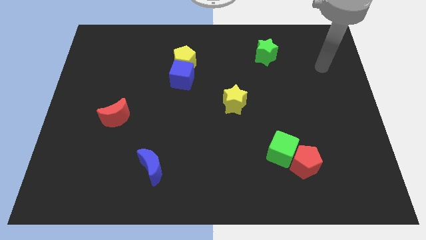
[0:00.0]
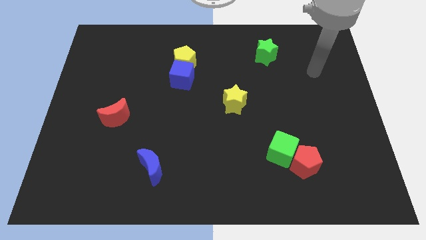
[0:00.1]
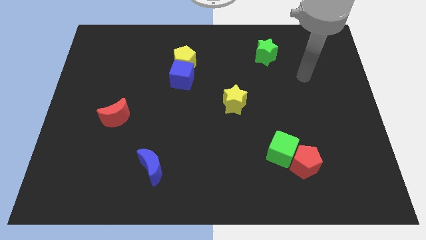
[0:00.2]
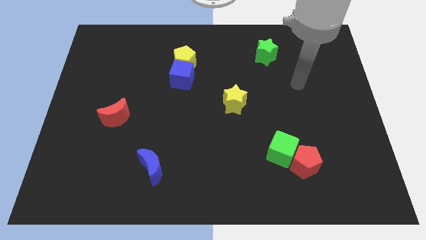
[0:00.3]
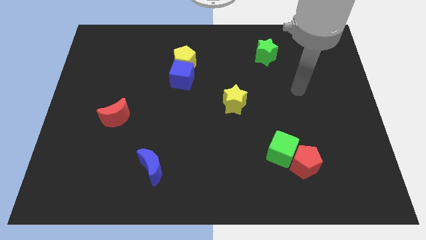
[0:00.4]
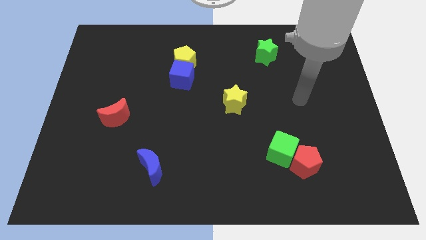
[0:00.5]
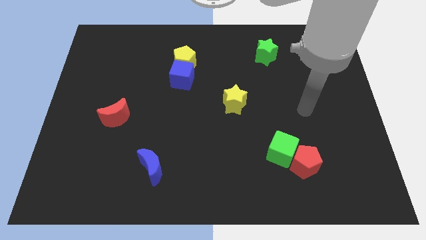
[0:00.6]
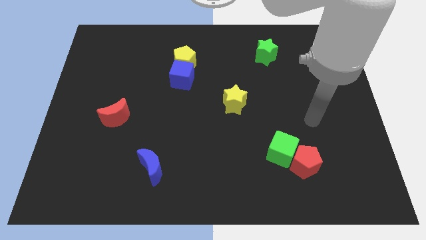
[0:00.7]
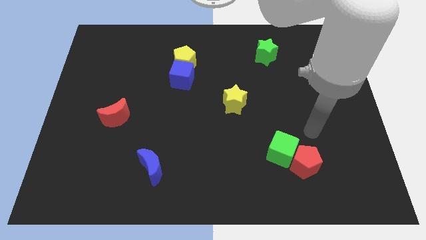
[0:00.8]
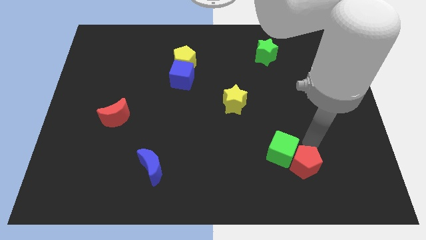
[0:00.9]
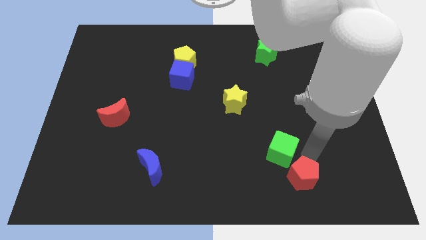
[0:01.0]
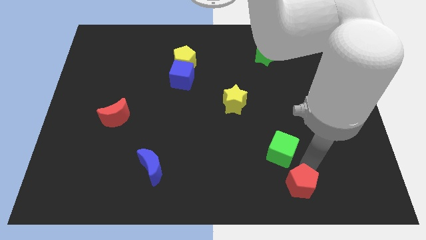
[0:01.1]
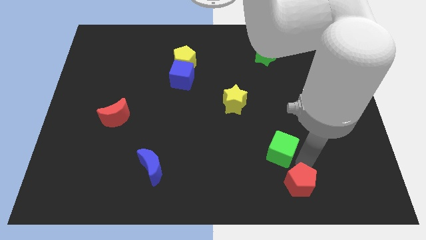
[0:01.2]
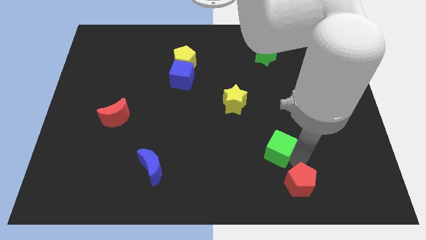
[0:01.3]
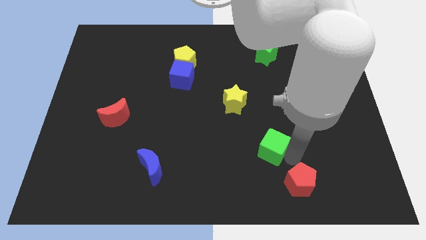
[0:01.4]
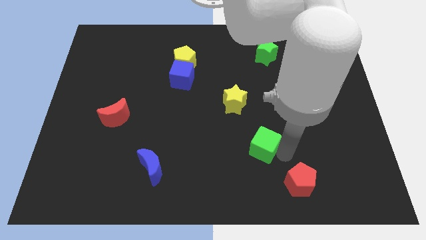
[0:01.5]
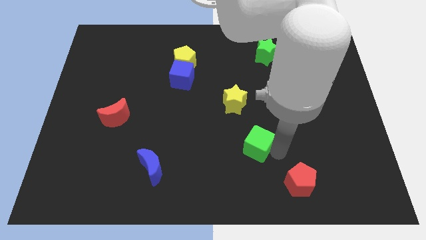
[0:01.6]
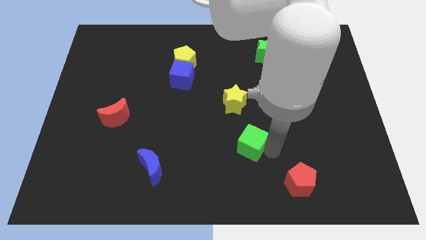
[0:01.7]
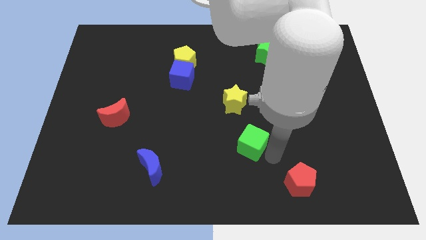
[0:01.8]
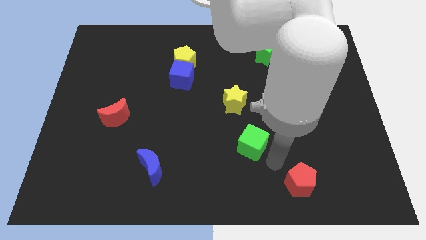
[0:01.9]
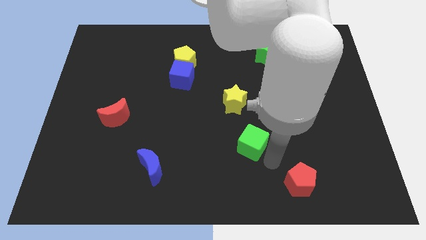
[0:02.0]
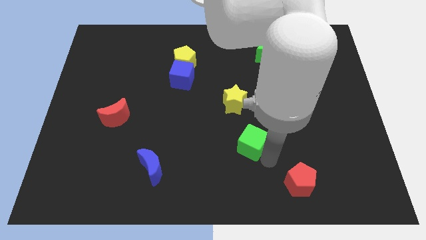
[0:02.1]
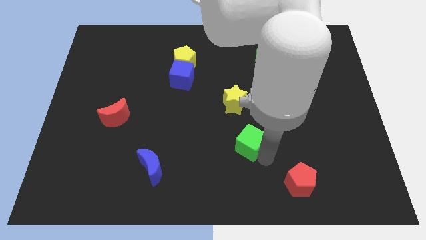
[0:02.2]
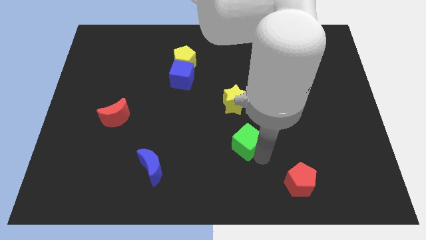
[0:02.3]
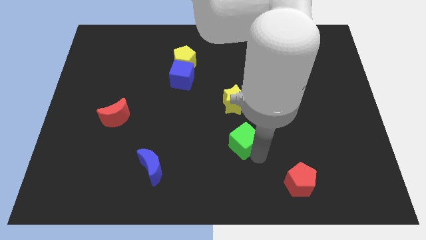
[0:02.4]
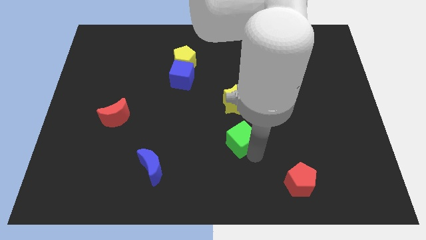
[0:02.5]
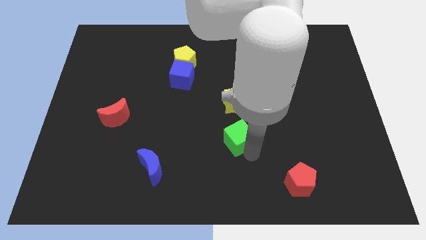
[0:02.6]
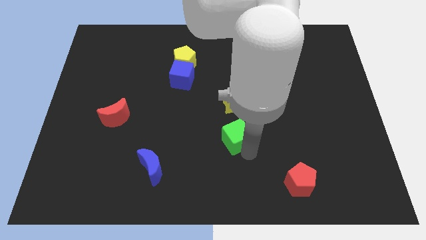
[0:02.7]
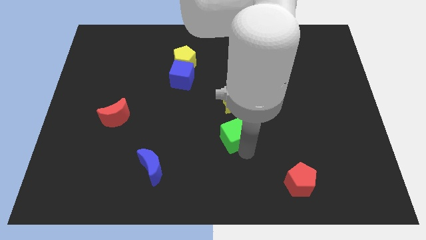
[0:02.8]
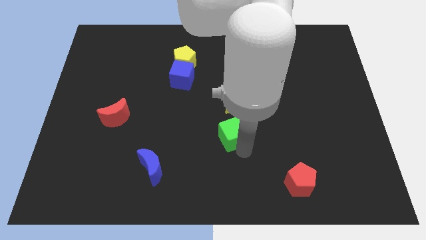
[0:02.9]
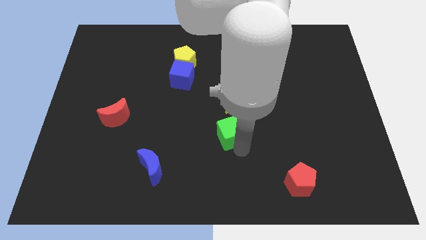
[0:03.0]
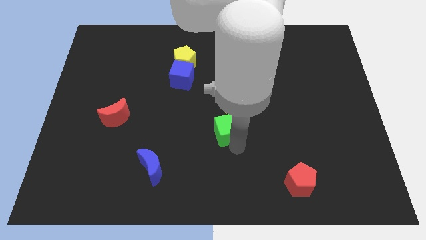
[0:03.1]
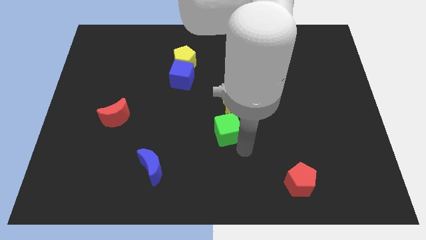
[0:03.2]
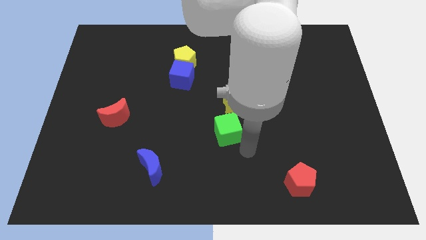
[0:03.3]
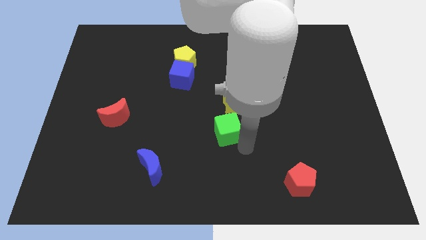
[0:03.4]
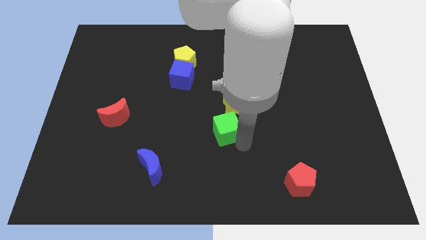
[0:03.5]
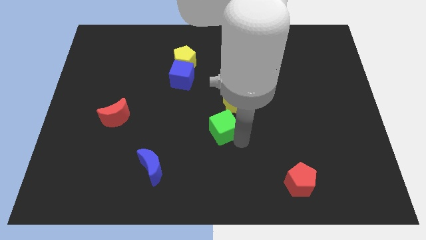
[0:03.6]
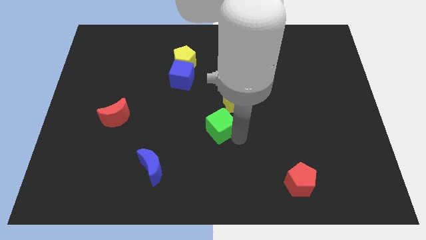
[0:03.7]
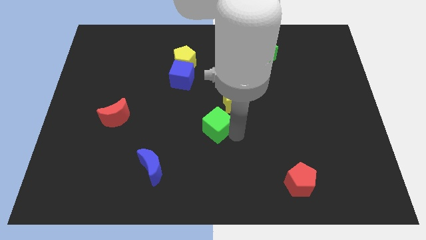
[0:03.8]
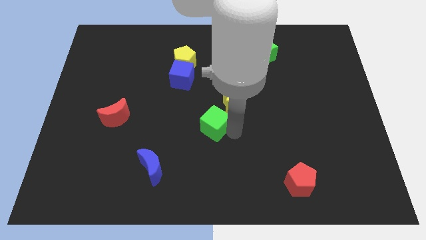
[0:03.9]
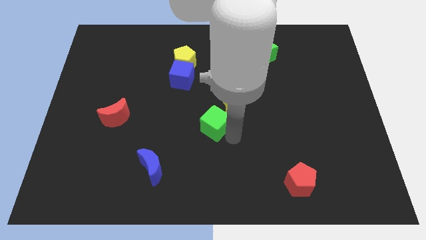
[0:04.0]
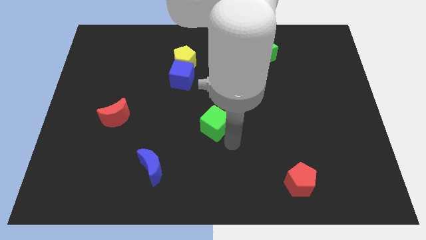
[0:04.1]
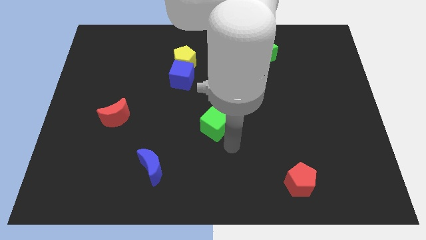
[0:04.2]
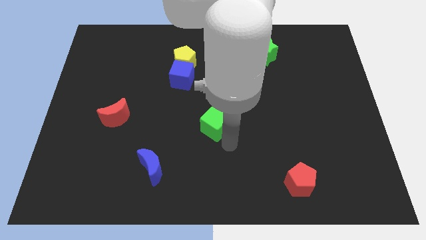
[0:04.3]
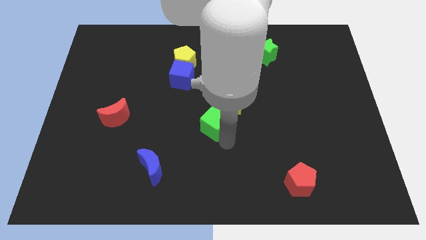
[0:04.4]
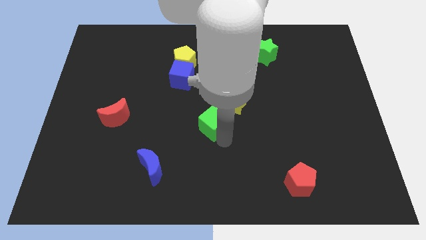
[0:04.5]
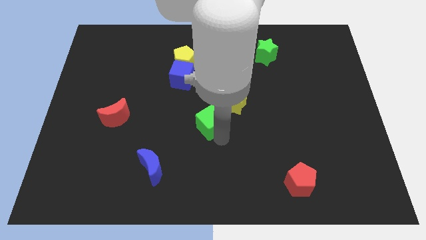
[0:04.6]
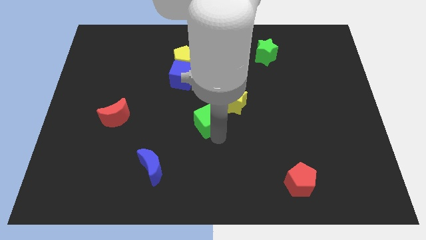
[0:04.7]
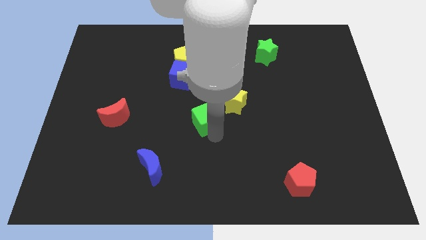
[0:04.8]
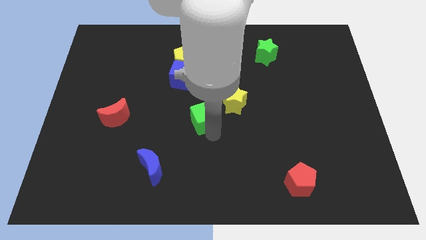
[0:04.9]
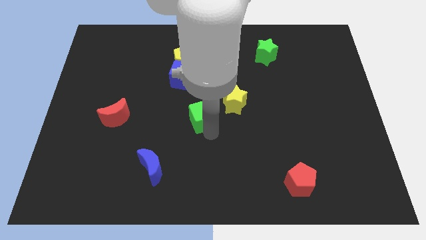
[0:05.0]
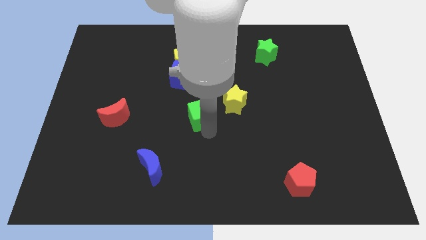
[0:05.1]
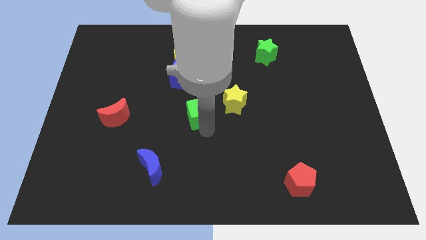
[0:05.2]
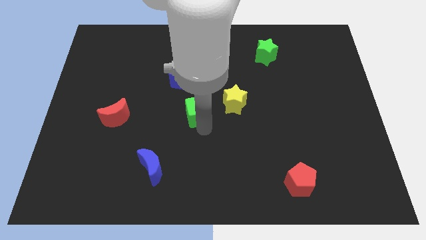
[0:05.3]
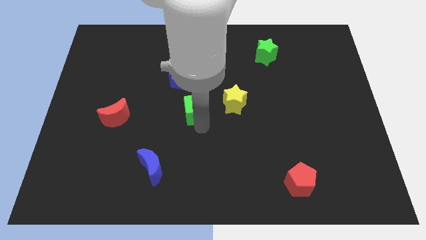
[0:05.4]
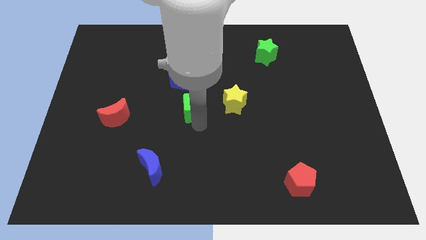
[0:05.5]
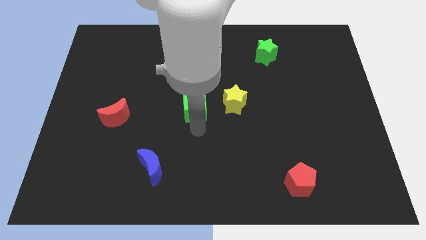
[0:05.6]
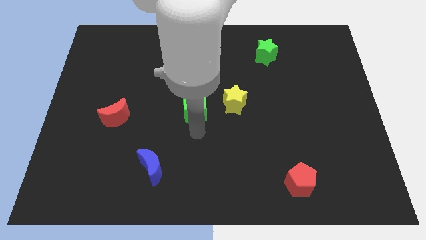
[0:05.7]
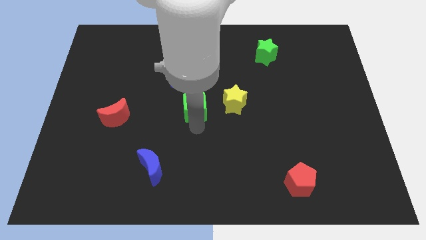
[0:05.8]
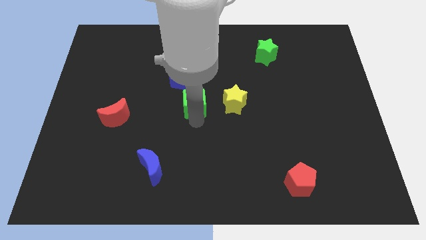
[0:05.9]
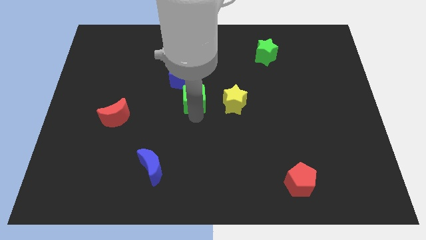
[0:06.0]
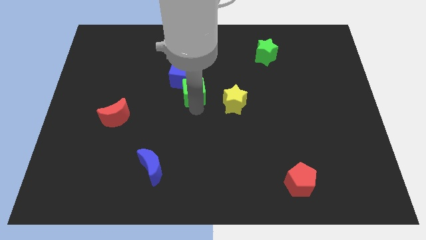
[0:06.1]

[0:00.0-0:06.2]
push the green cube to the blue cube
